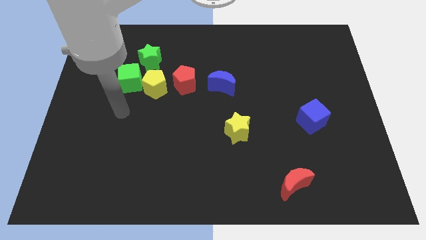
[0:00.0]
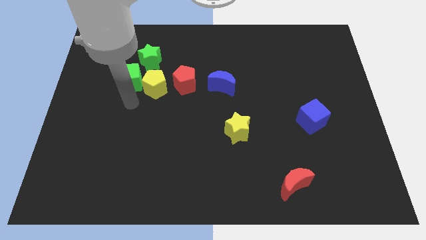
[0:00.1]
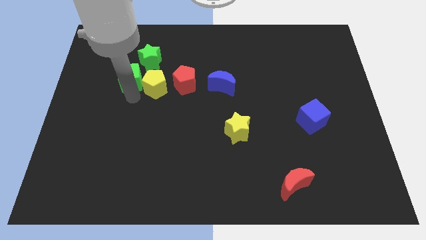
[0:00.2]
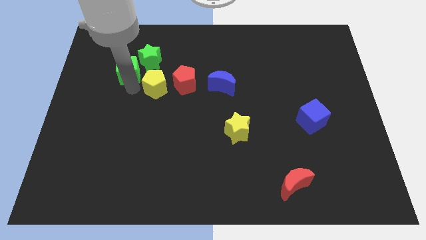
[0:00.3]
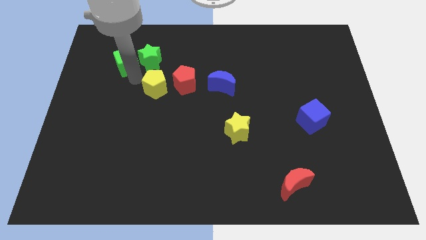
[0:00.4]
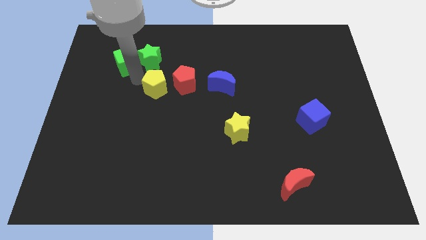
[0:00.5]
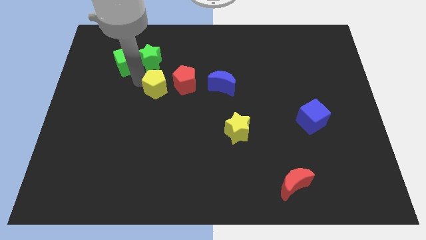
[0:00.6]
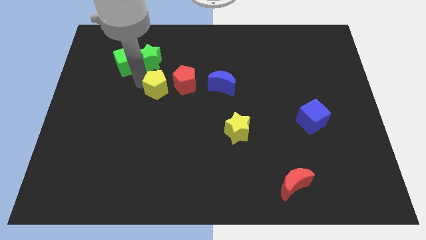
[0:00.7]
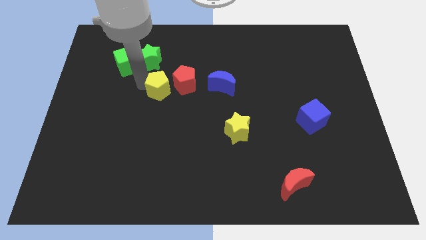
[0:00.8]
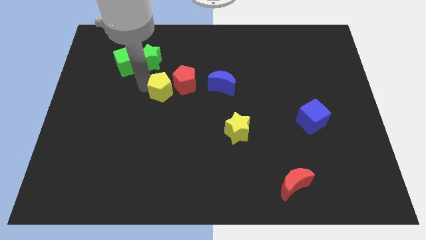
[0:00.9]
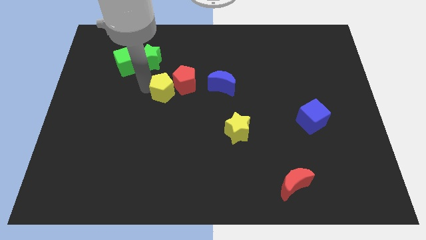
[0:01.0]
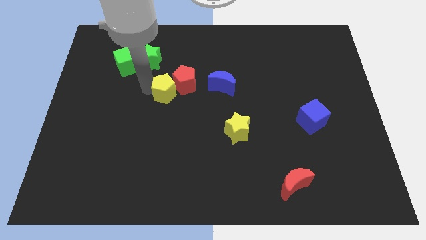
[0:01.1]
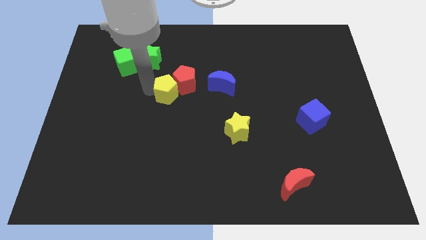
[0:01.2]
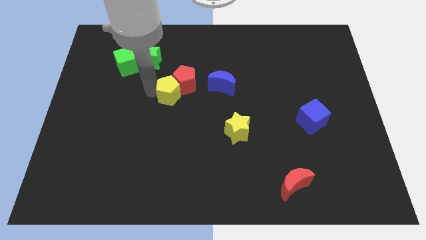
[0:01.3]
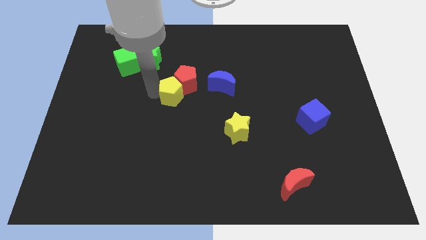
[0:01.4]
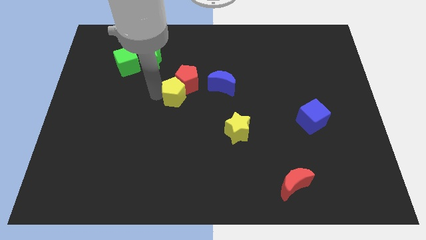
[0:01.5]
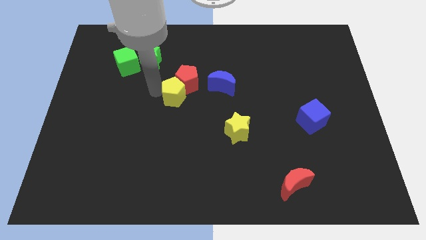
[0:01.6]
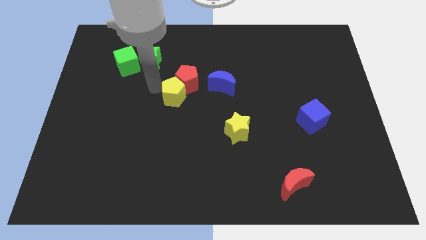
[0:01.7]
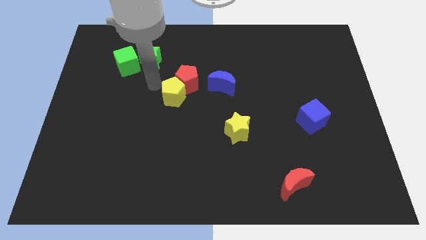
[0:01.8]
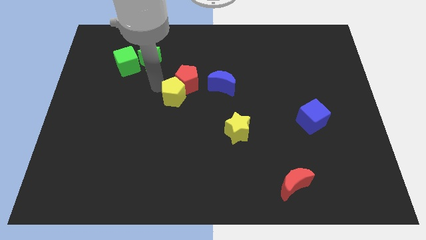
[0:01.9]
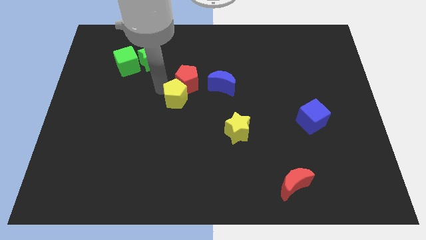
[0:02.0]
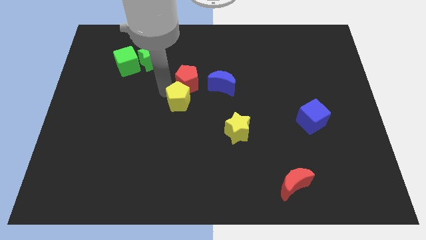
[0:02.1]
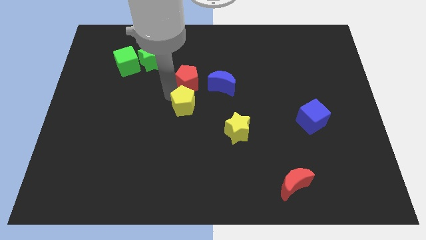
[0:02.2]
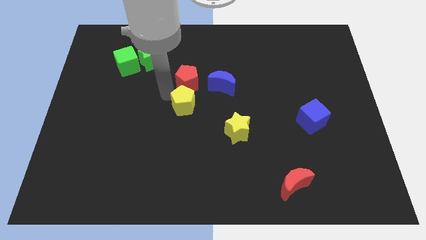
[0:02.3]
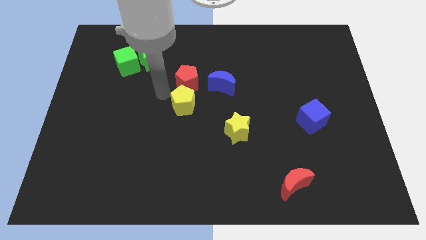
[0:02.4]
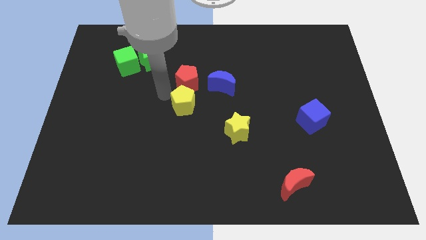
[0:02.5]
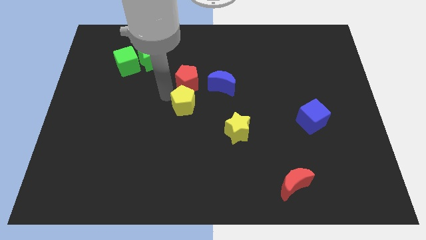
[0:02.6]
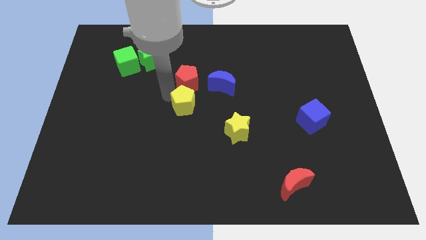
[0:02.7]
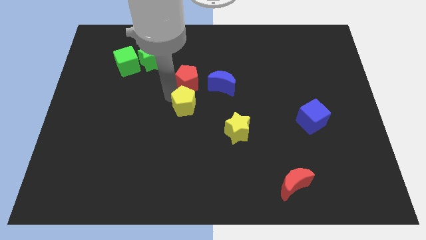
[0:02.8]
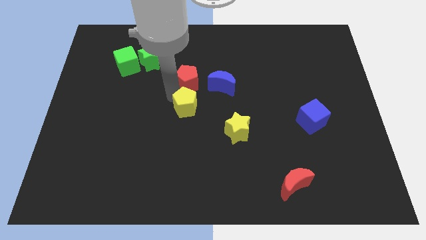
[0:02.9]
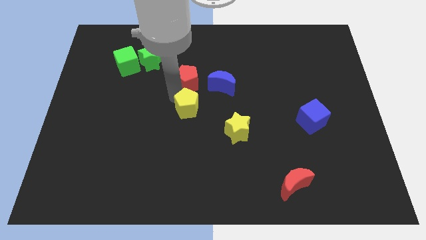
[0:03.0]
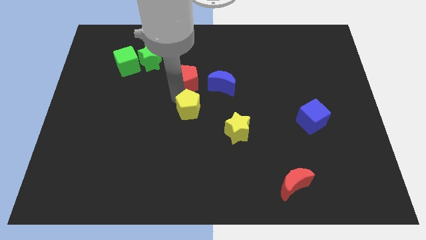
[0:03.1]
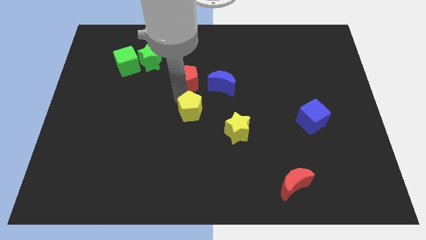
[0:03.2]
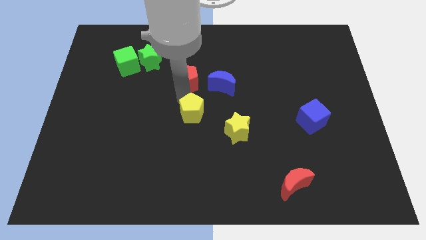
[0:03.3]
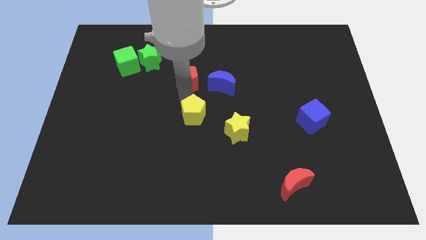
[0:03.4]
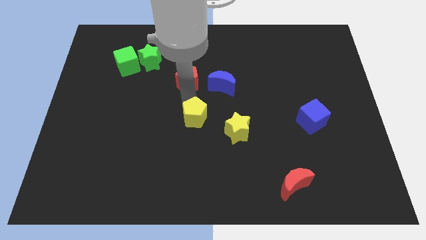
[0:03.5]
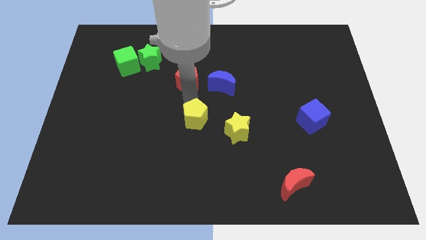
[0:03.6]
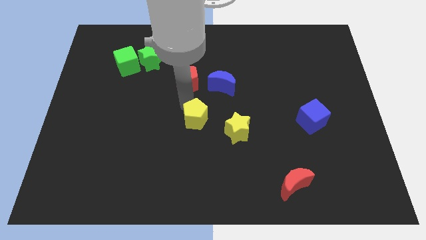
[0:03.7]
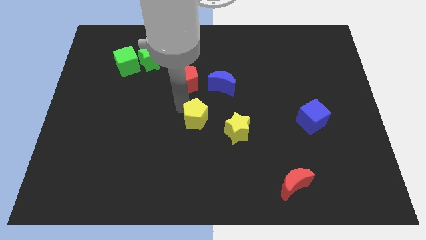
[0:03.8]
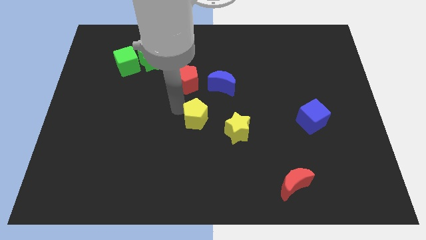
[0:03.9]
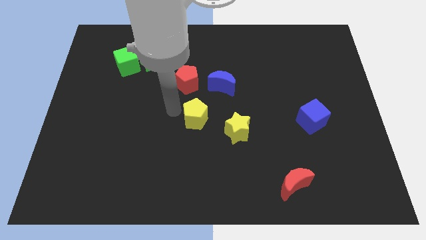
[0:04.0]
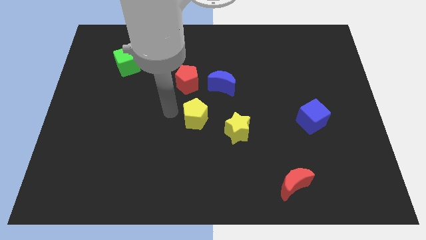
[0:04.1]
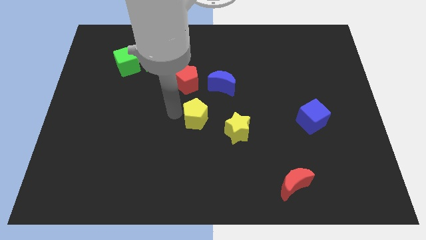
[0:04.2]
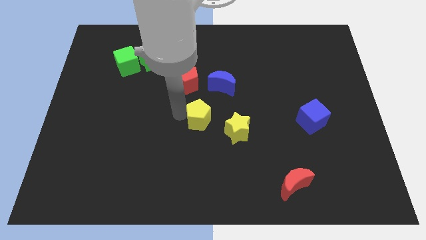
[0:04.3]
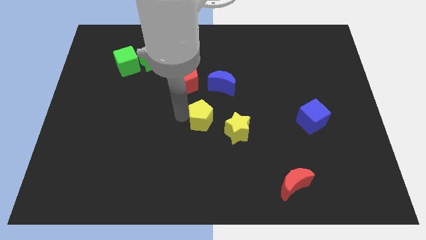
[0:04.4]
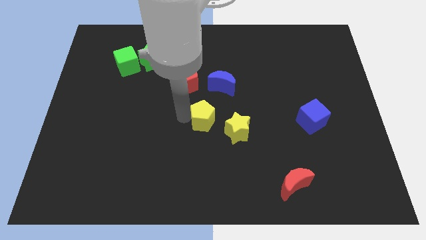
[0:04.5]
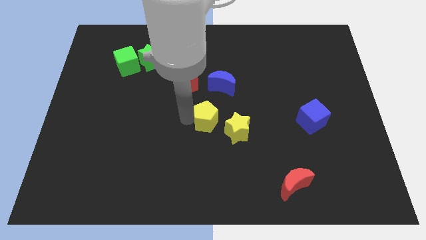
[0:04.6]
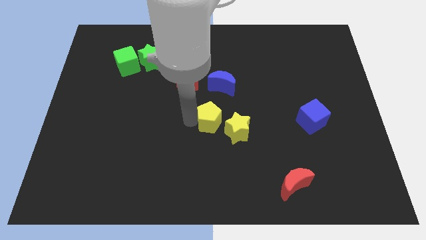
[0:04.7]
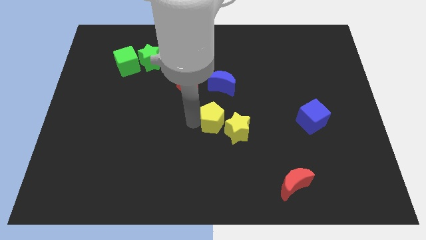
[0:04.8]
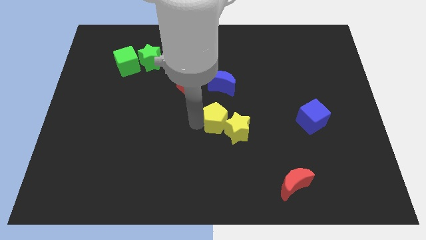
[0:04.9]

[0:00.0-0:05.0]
push the yellow pentagon to the yellow star

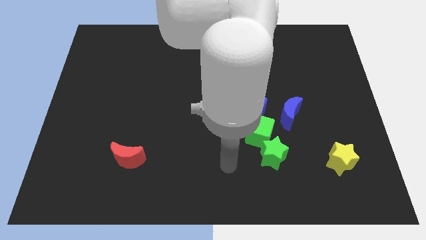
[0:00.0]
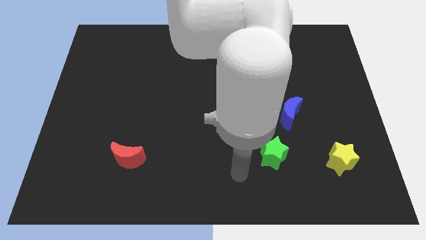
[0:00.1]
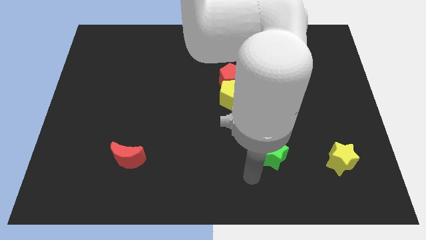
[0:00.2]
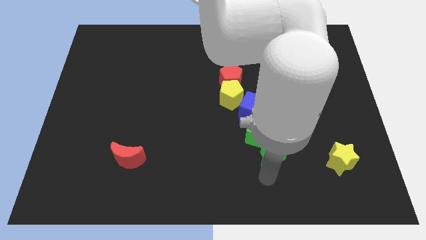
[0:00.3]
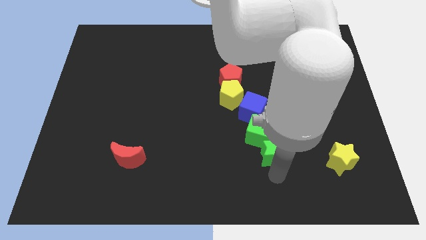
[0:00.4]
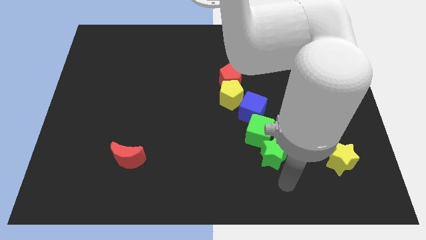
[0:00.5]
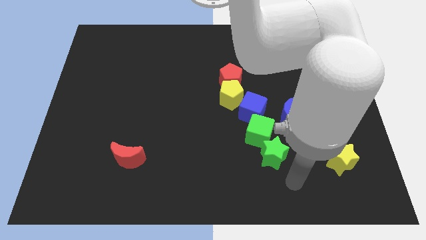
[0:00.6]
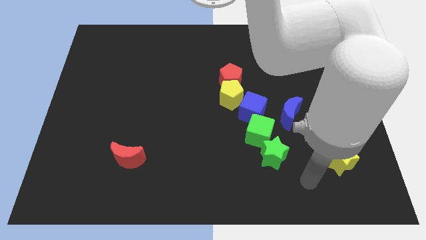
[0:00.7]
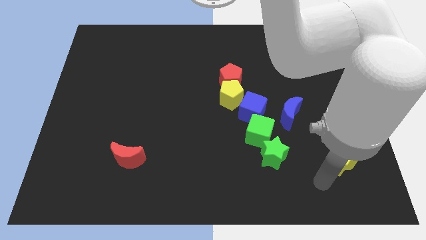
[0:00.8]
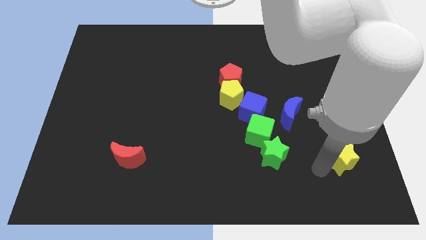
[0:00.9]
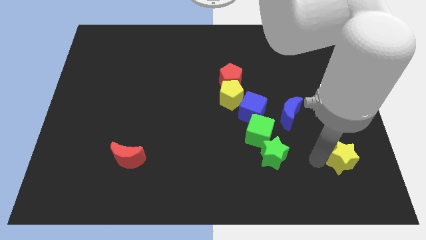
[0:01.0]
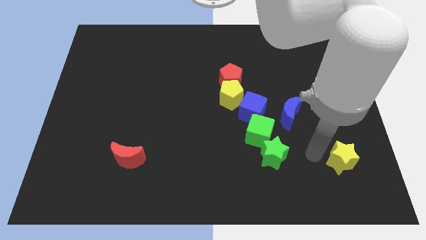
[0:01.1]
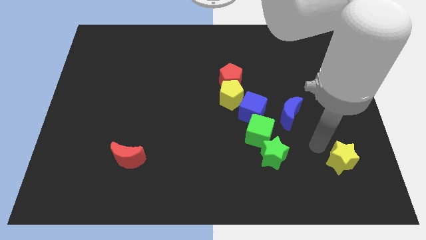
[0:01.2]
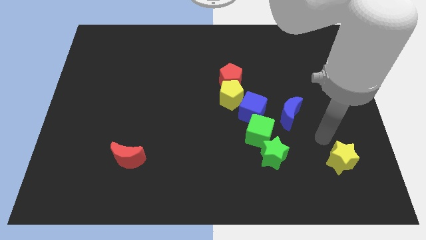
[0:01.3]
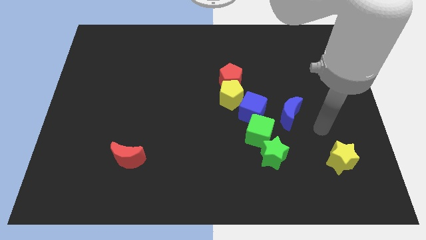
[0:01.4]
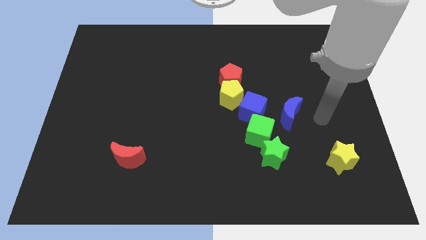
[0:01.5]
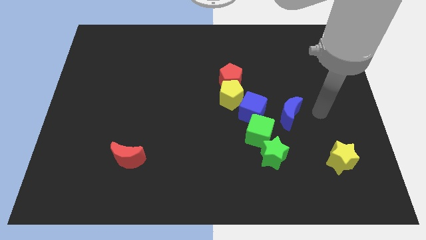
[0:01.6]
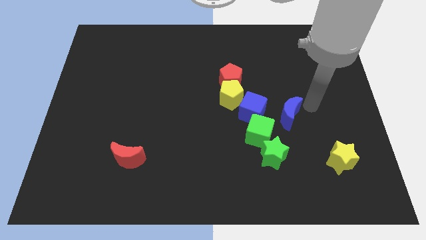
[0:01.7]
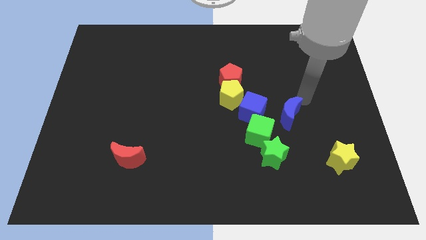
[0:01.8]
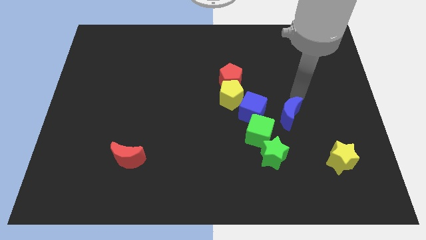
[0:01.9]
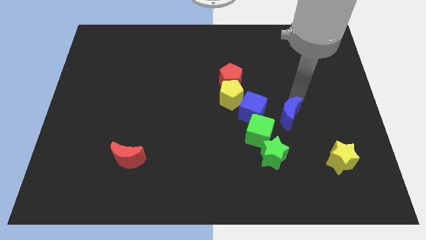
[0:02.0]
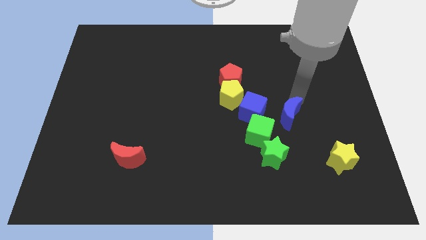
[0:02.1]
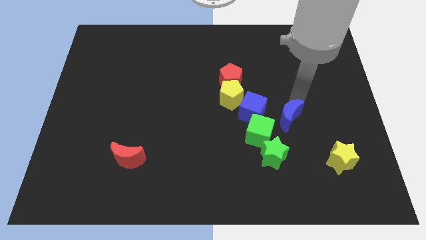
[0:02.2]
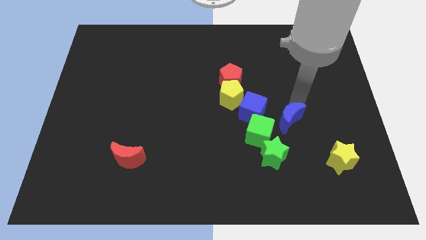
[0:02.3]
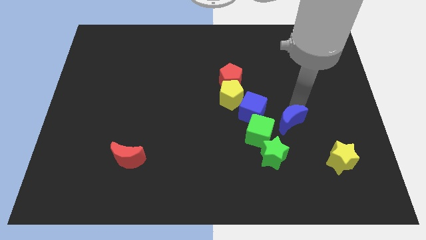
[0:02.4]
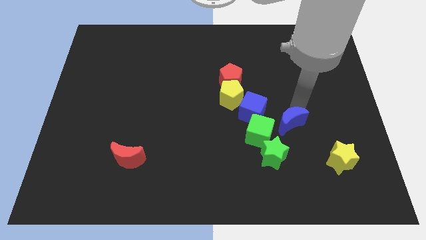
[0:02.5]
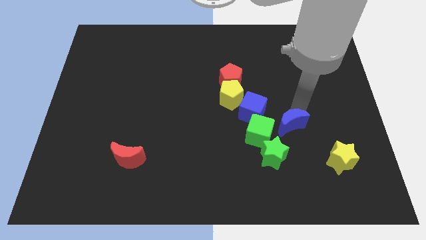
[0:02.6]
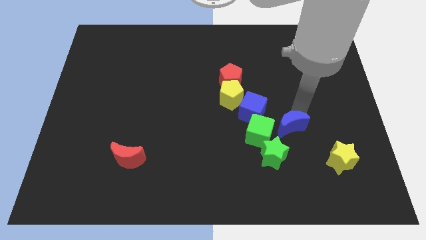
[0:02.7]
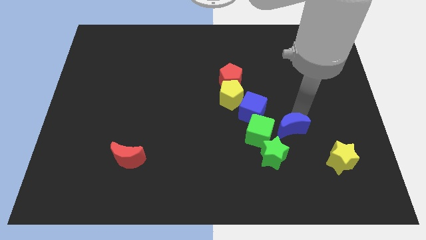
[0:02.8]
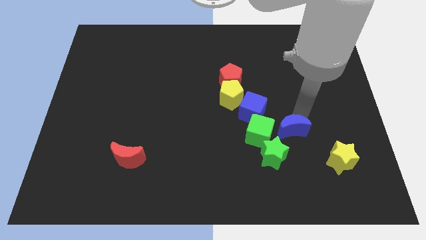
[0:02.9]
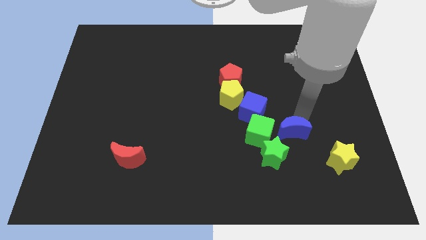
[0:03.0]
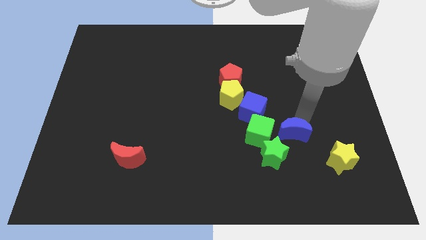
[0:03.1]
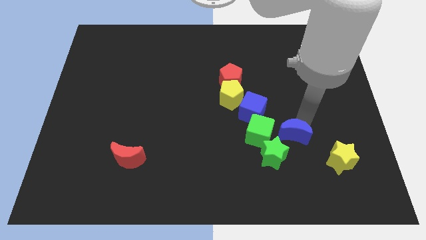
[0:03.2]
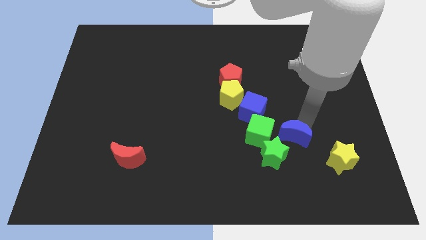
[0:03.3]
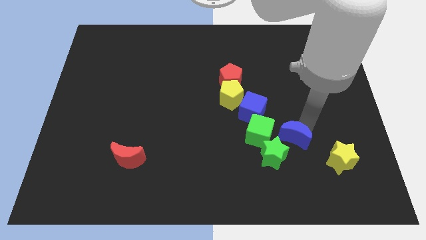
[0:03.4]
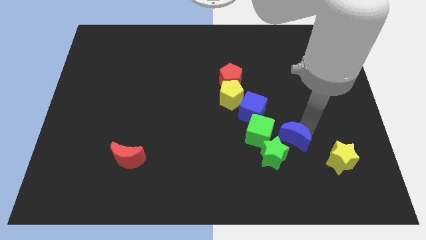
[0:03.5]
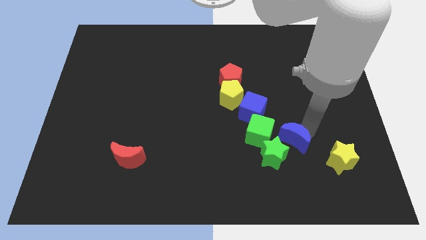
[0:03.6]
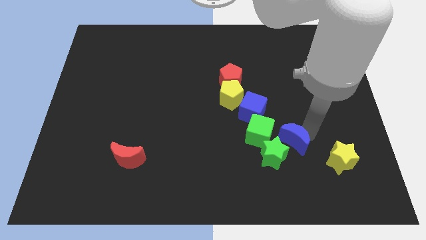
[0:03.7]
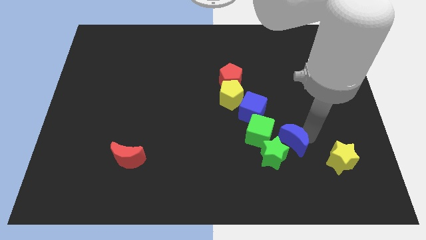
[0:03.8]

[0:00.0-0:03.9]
push the blue moon to the green star
